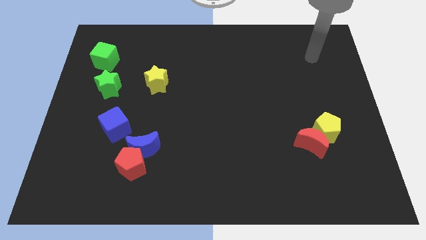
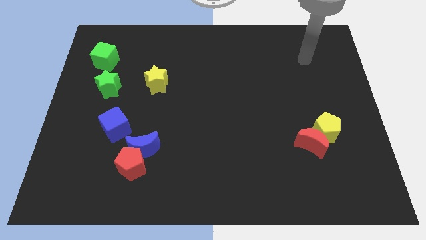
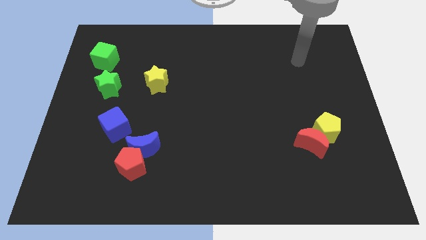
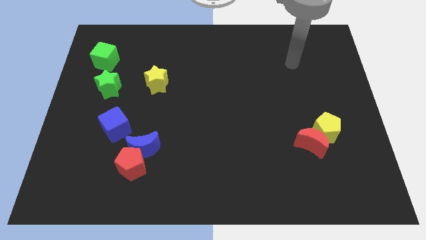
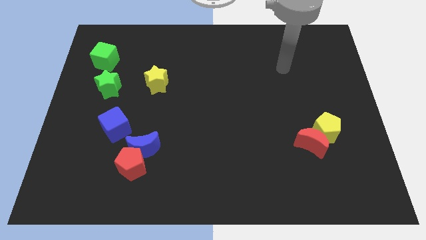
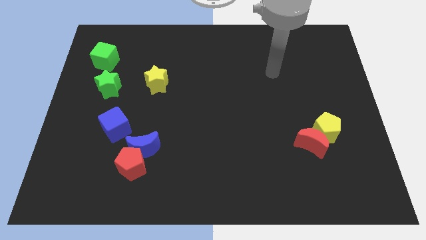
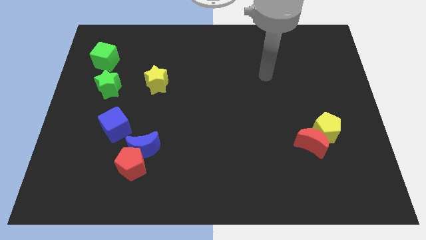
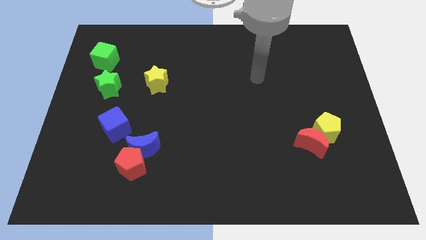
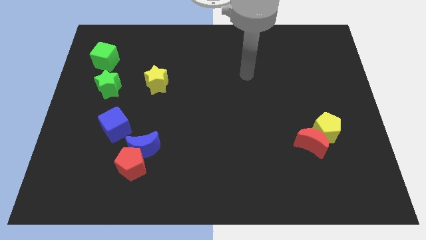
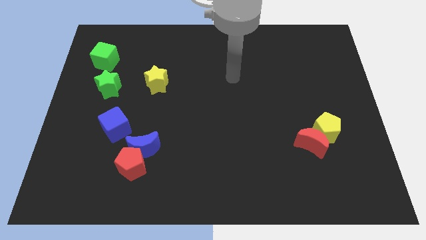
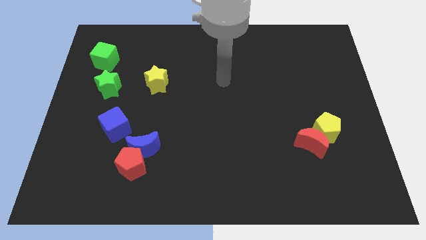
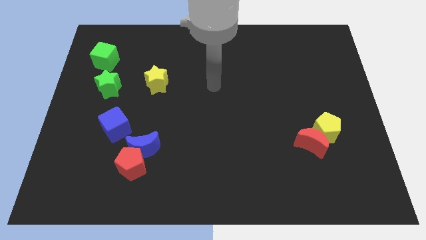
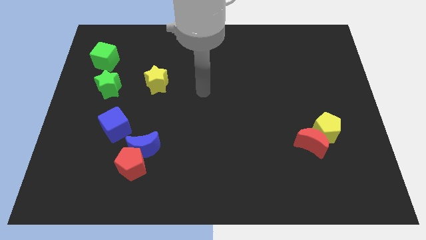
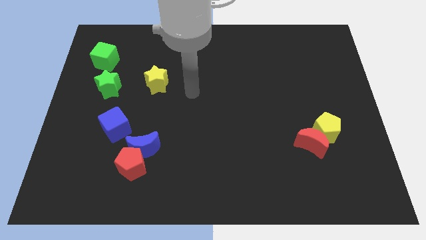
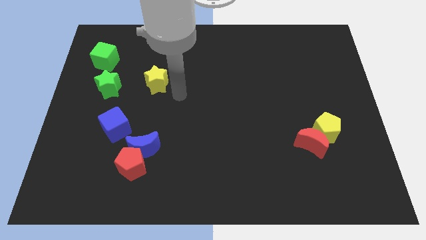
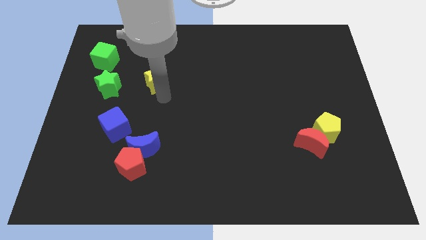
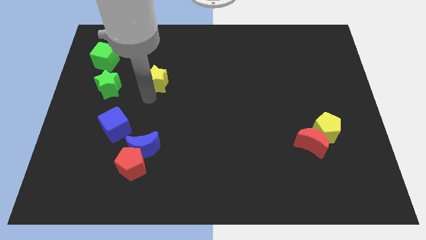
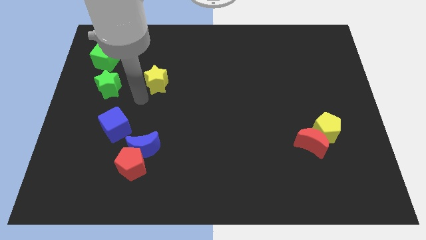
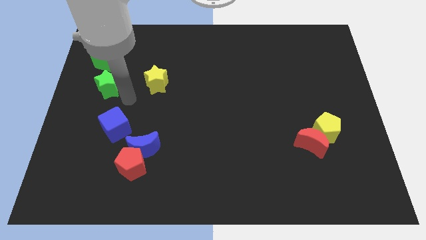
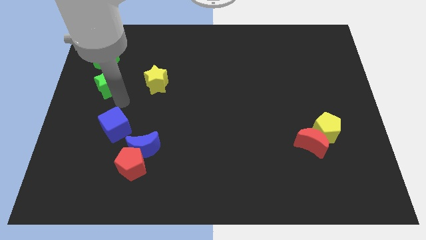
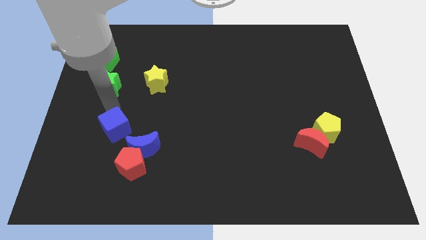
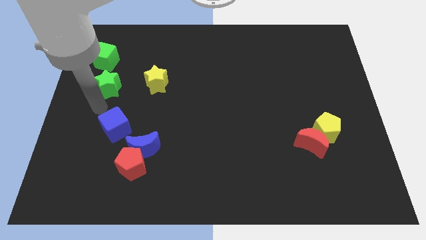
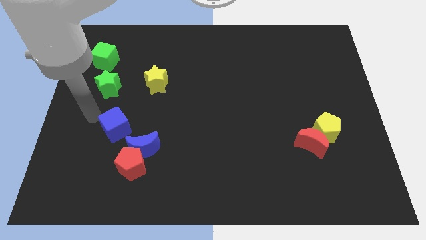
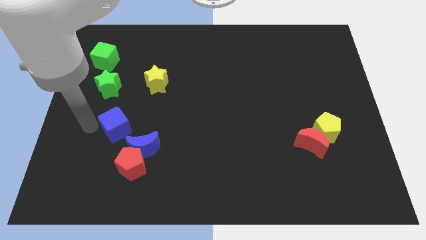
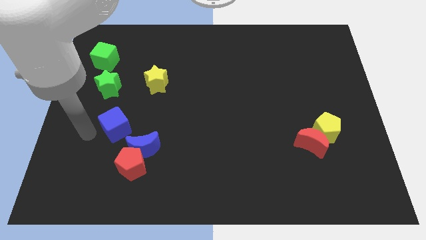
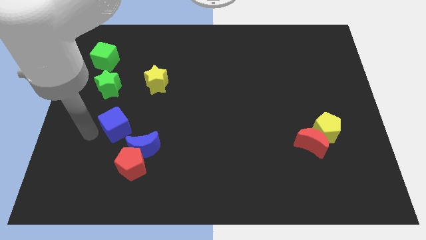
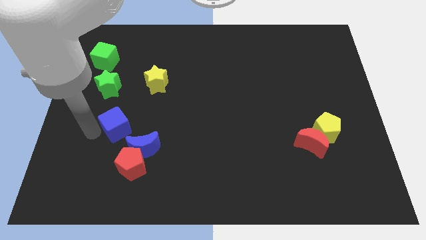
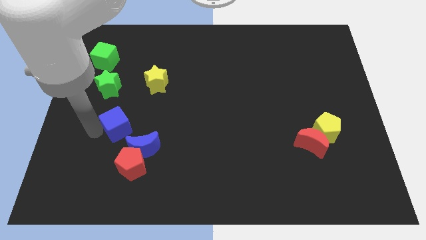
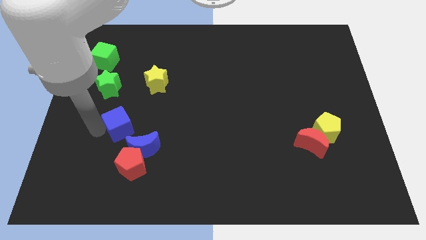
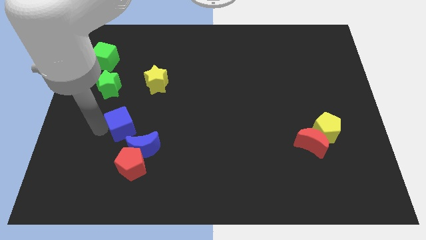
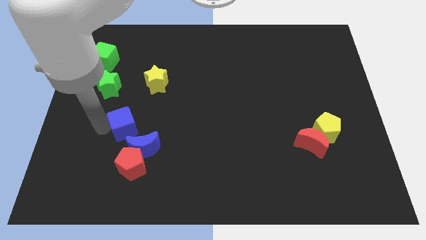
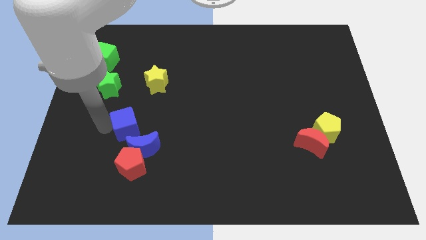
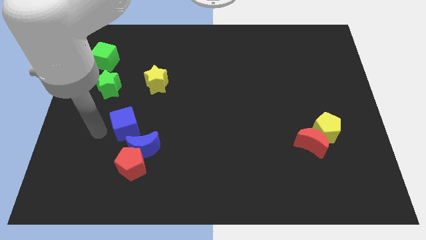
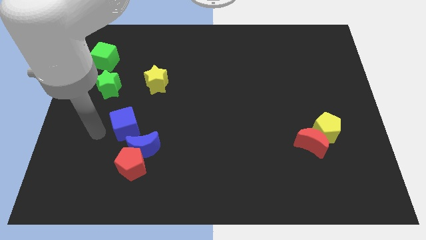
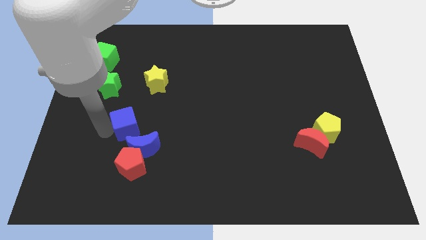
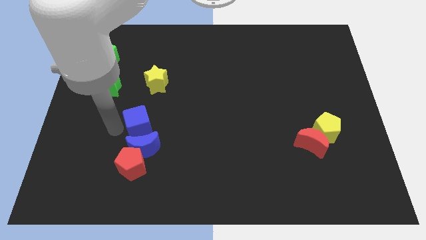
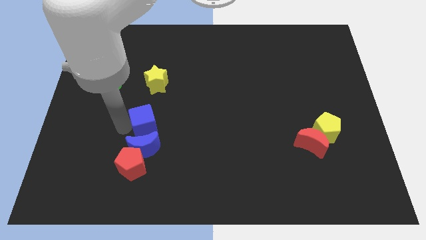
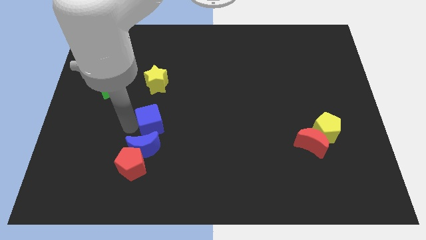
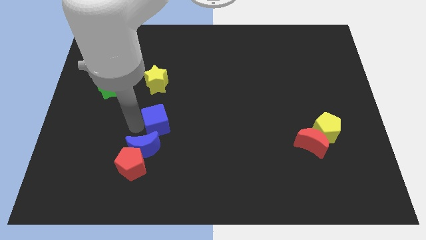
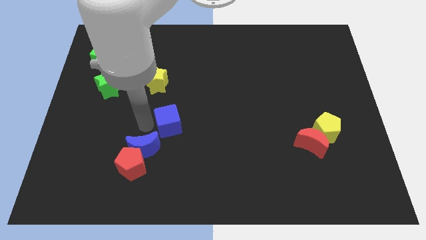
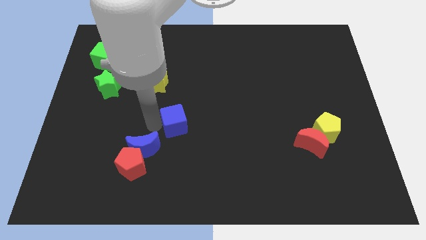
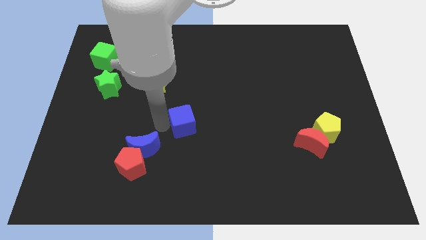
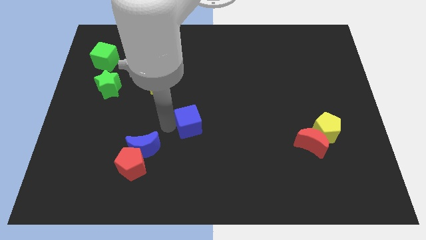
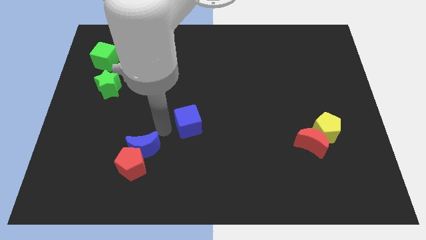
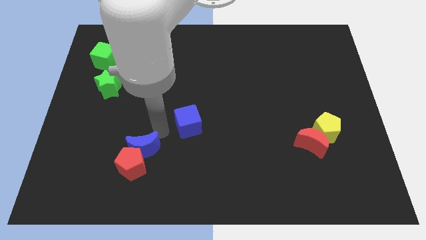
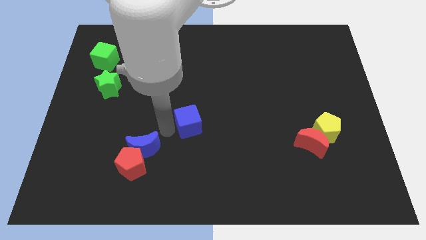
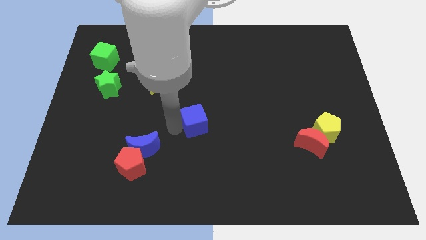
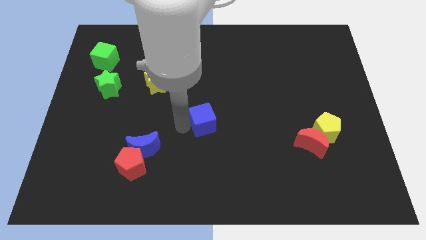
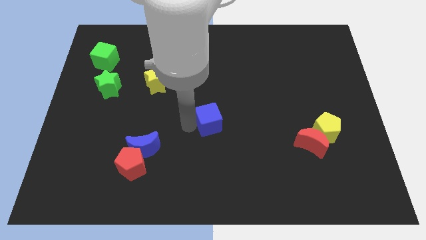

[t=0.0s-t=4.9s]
slide the blue cube right

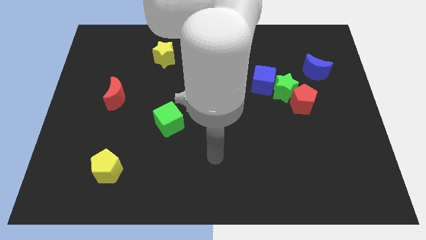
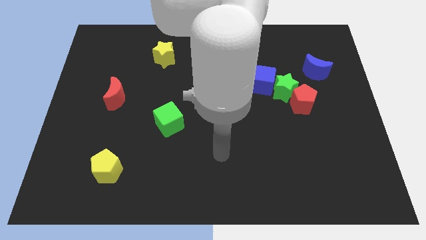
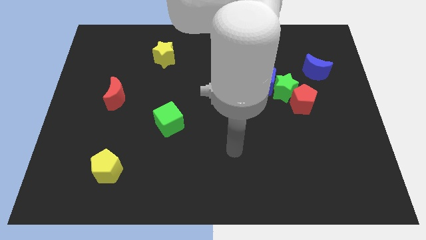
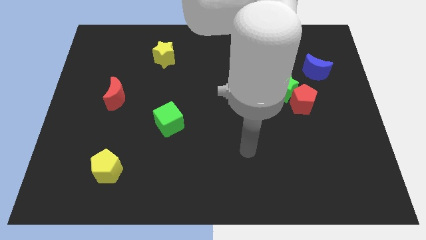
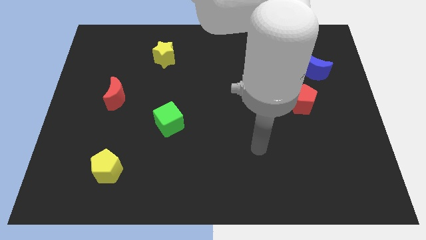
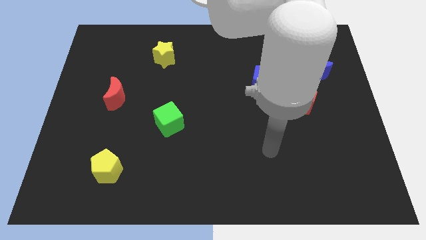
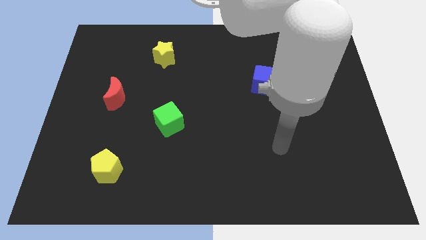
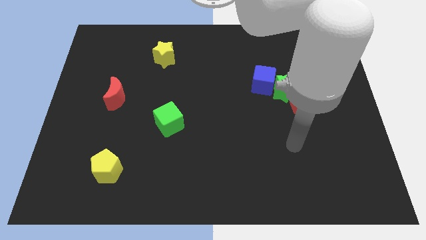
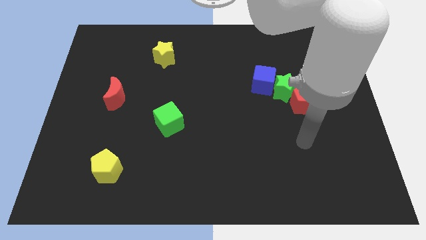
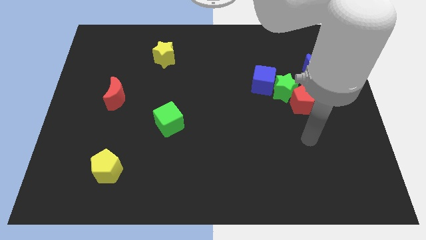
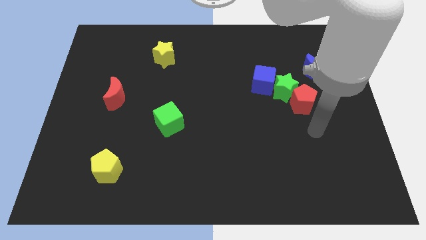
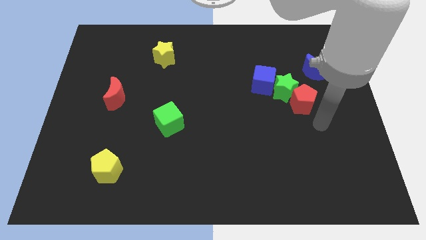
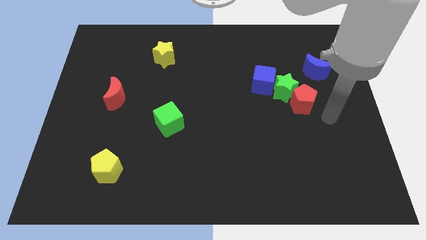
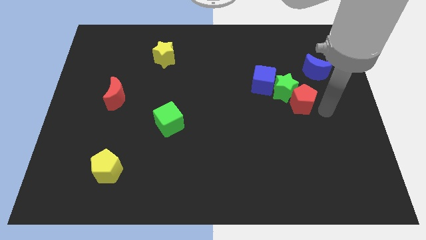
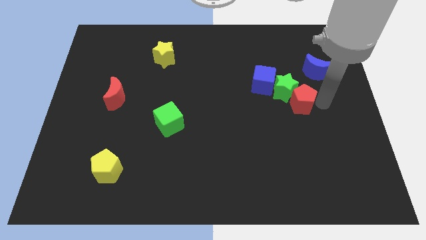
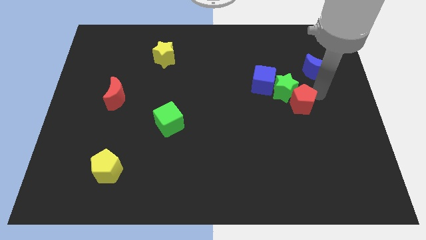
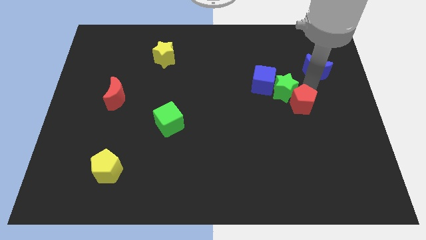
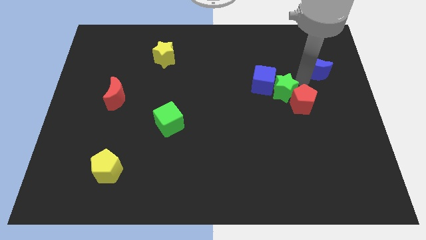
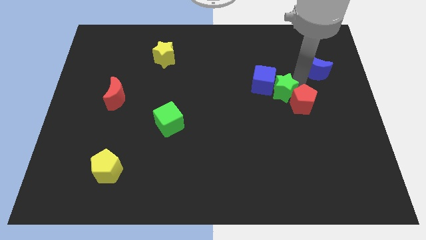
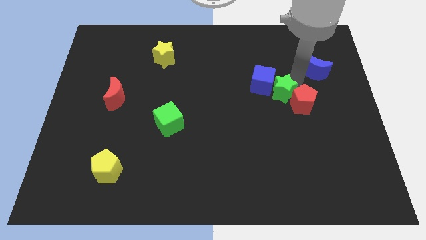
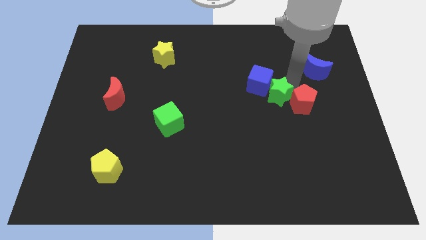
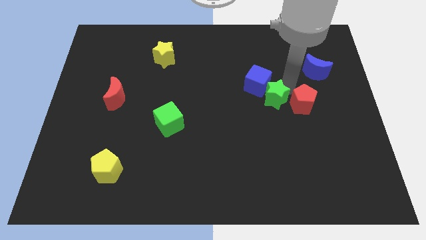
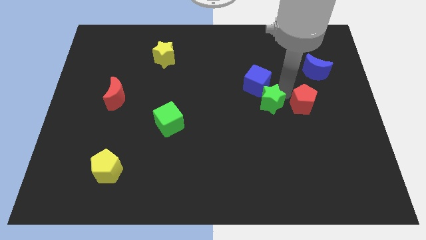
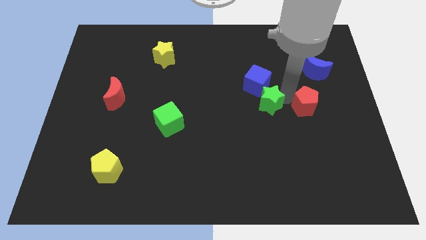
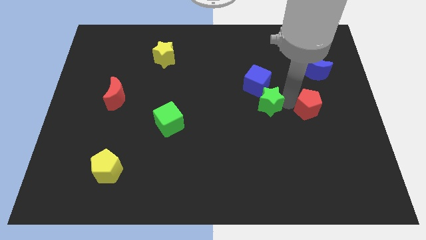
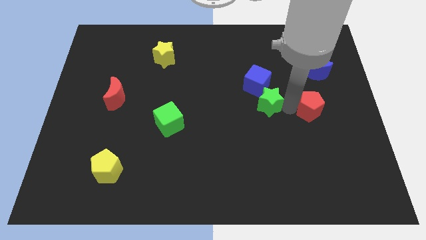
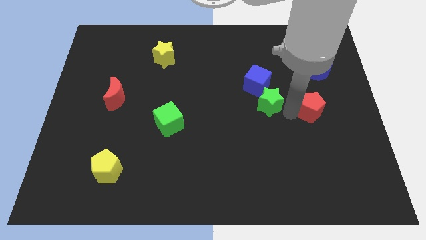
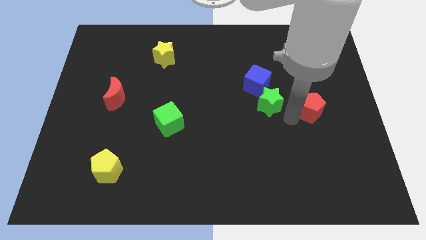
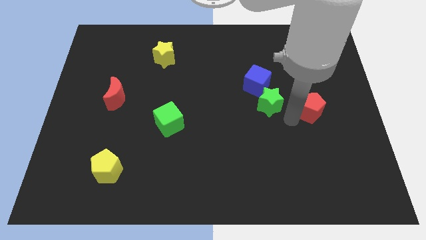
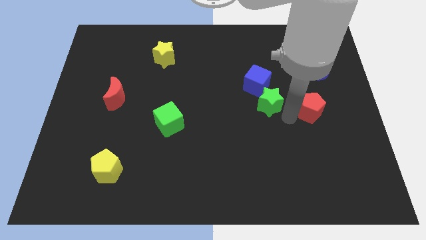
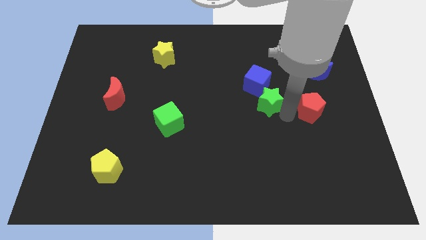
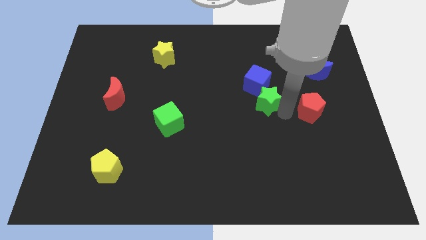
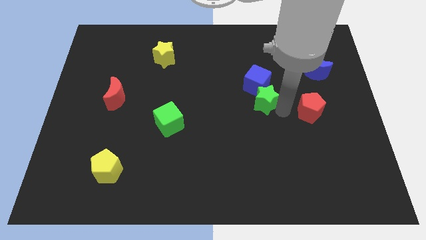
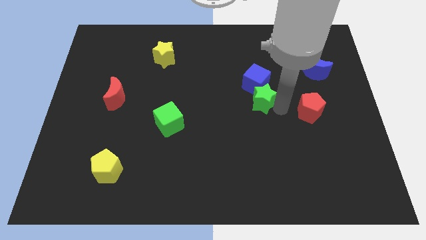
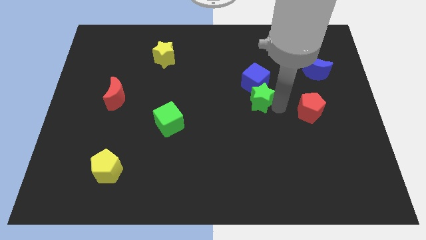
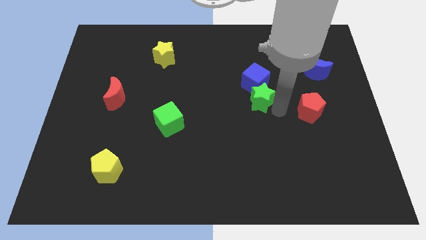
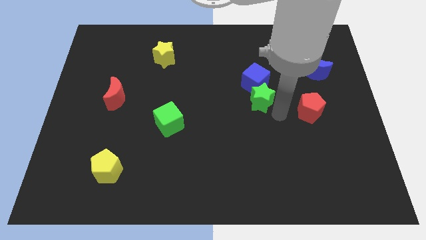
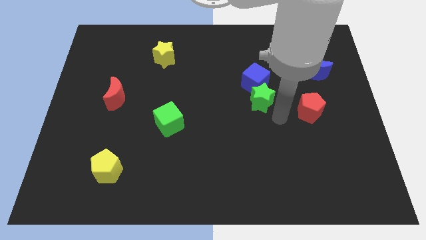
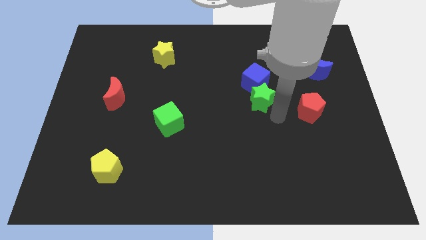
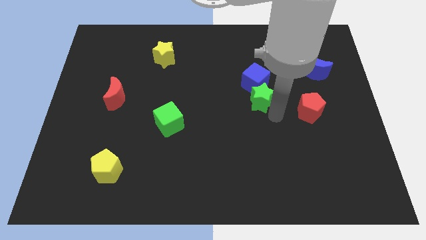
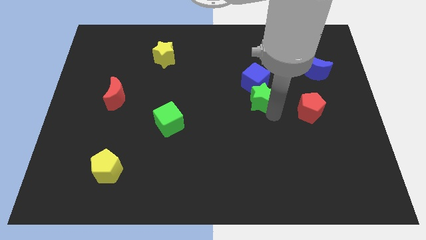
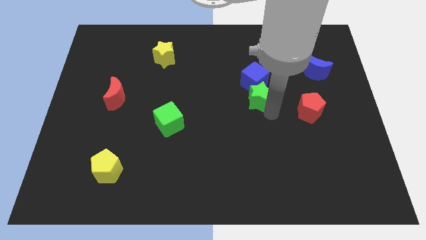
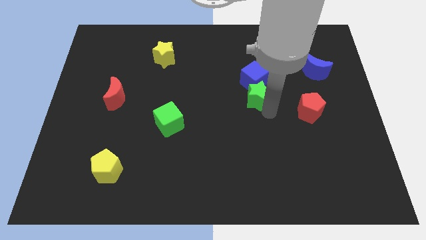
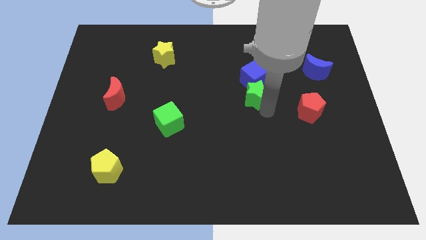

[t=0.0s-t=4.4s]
slide the green star slightly left
